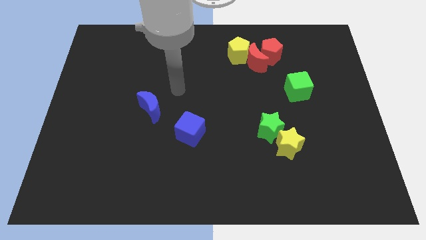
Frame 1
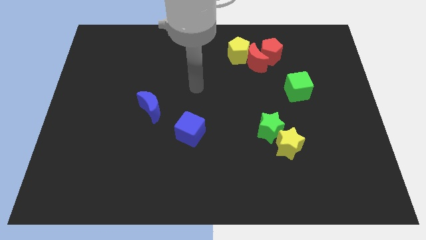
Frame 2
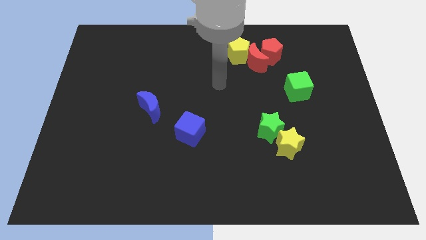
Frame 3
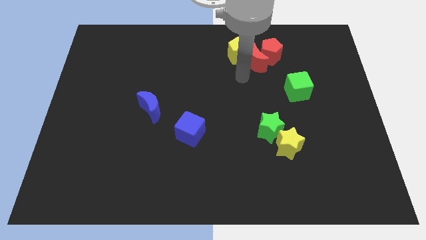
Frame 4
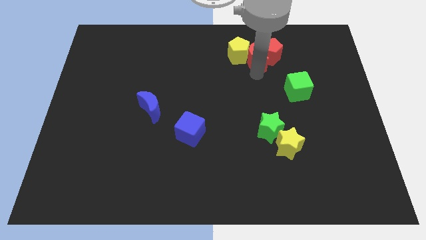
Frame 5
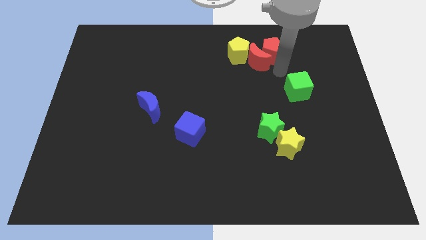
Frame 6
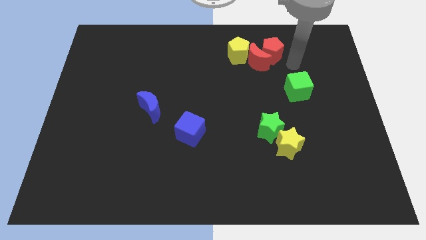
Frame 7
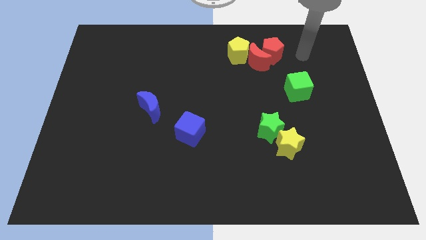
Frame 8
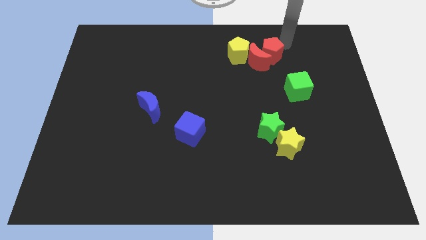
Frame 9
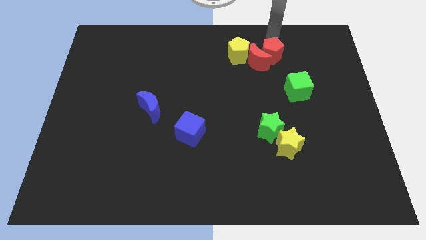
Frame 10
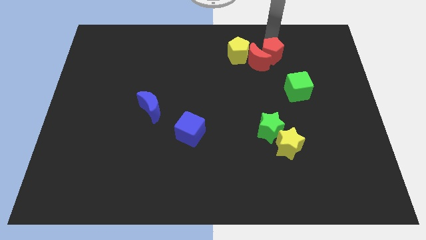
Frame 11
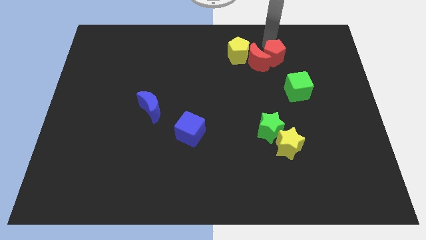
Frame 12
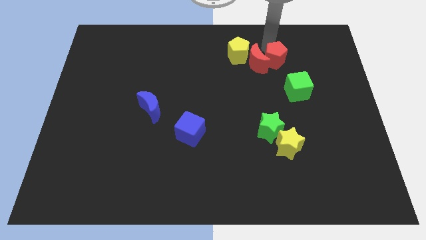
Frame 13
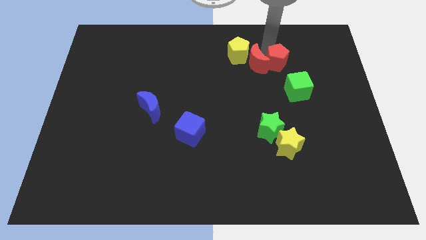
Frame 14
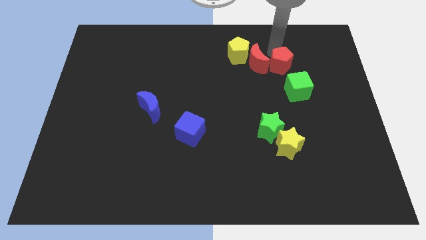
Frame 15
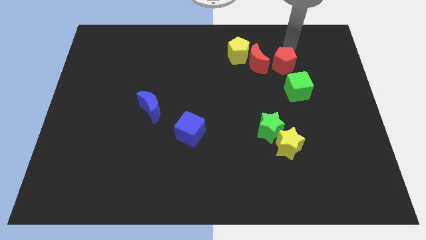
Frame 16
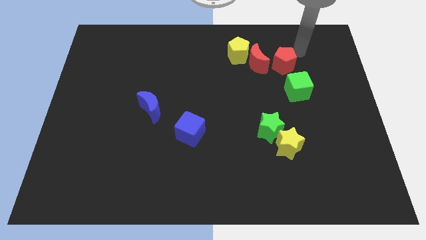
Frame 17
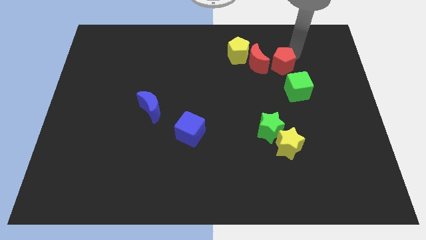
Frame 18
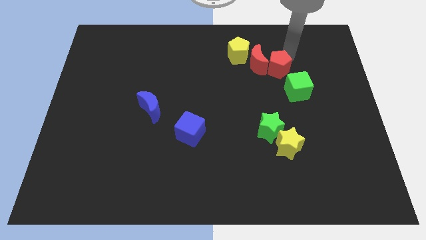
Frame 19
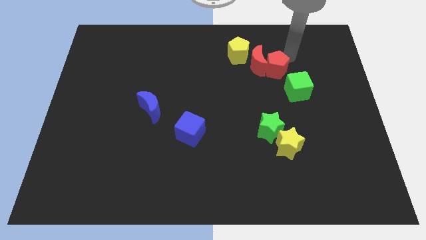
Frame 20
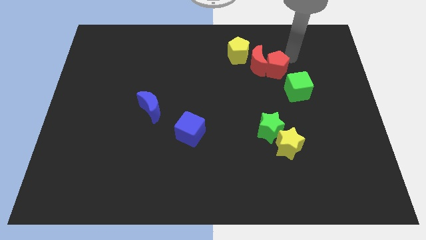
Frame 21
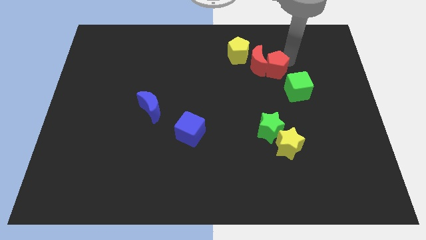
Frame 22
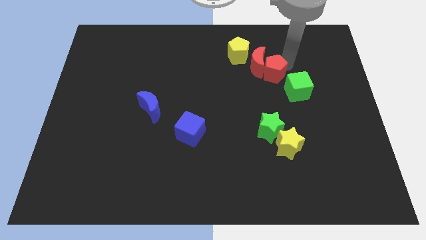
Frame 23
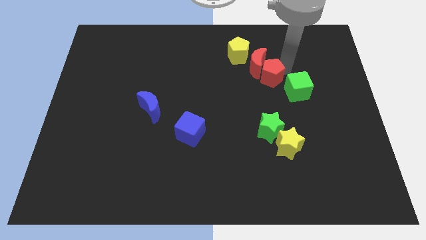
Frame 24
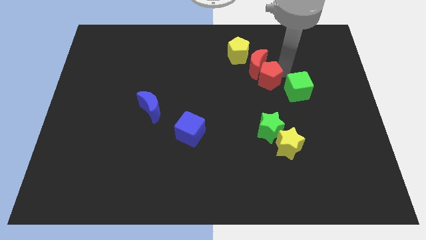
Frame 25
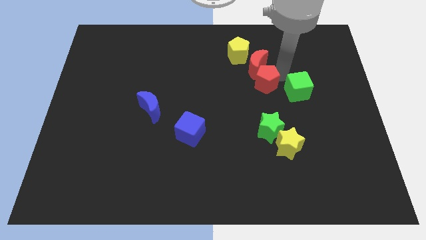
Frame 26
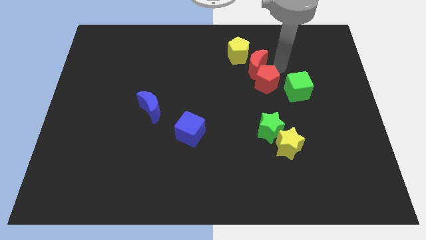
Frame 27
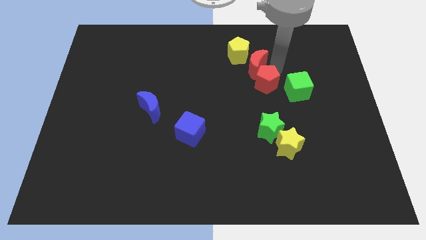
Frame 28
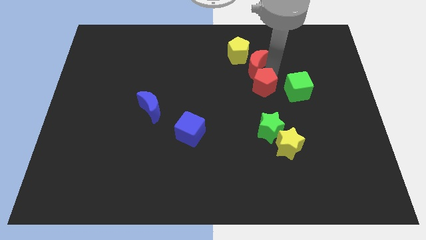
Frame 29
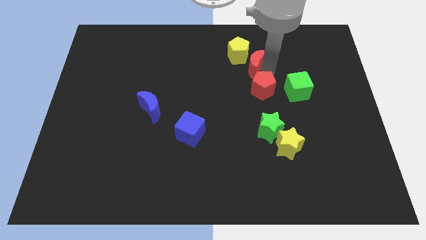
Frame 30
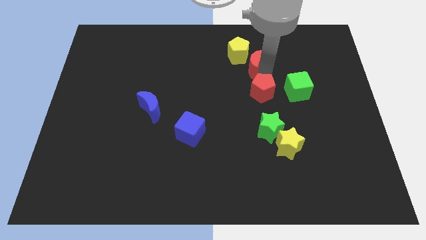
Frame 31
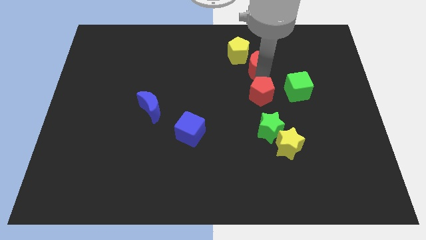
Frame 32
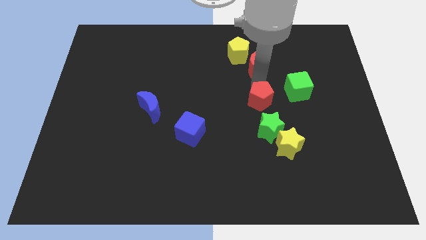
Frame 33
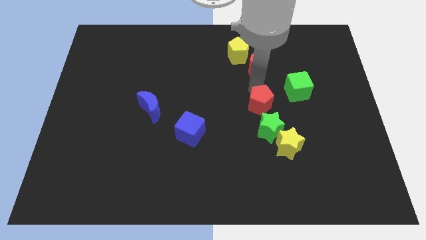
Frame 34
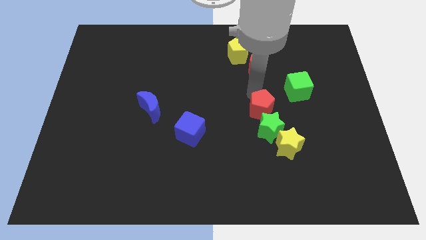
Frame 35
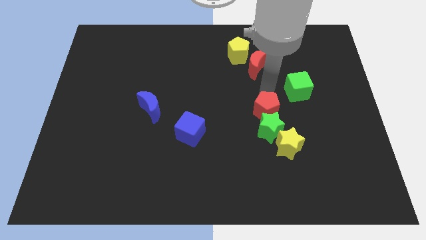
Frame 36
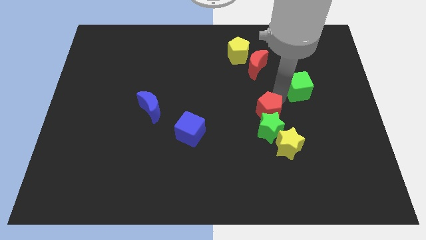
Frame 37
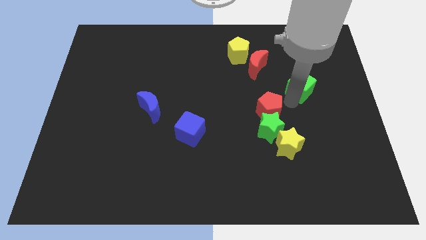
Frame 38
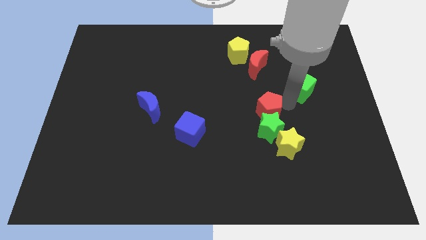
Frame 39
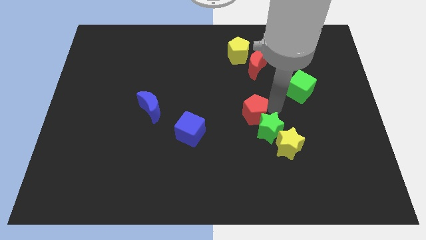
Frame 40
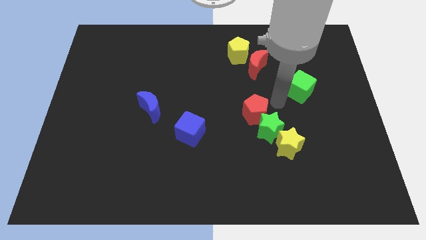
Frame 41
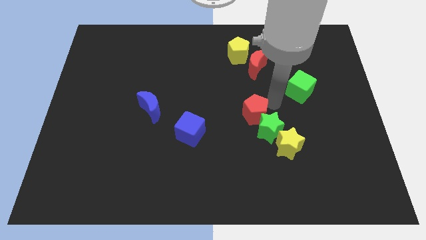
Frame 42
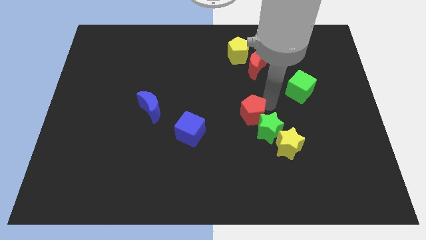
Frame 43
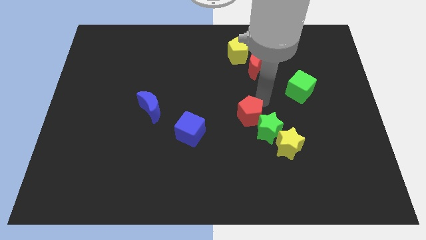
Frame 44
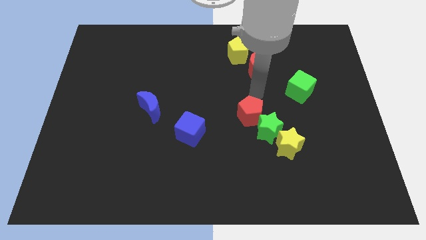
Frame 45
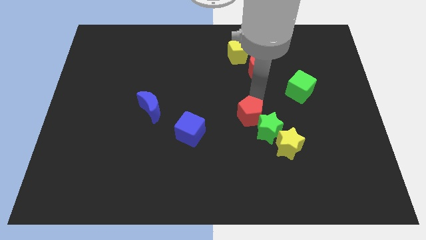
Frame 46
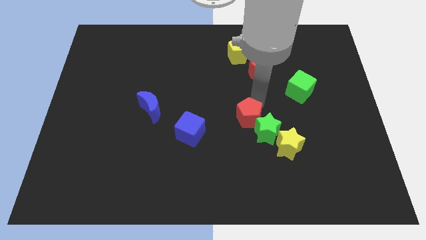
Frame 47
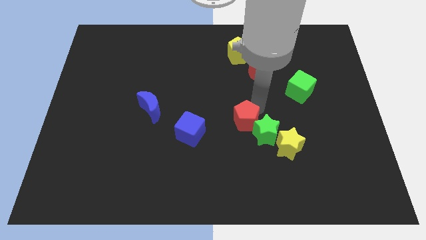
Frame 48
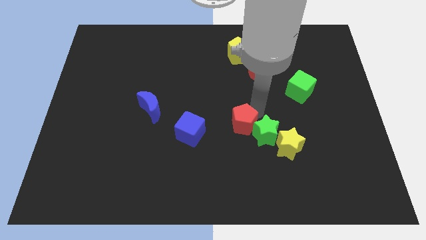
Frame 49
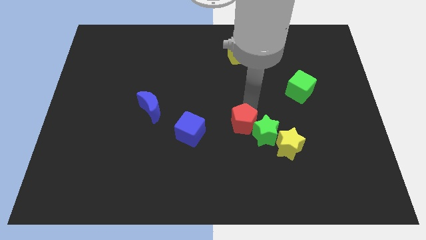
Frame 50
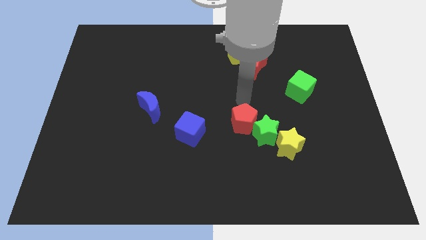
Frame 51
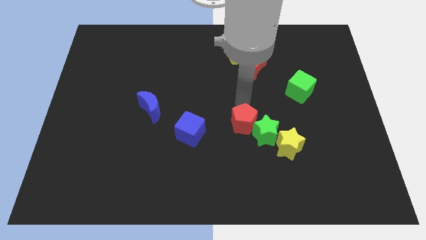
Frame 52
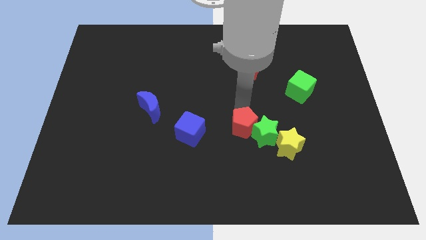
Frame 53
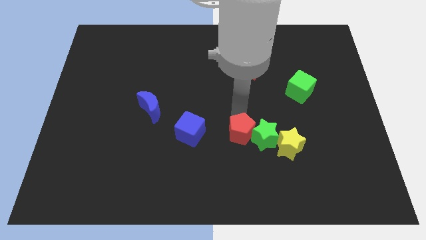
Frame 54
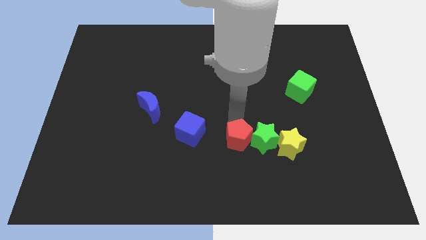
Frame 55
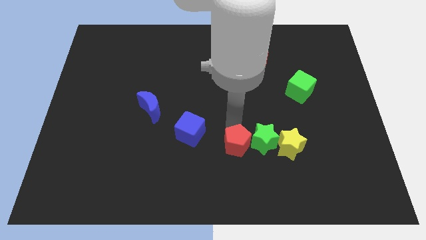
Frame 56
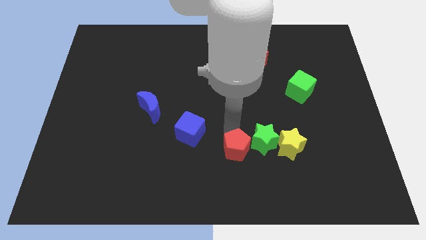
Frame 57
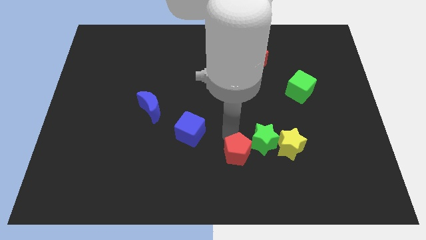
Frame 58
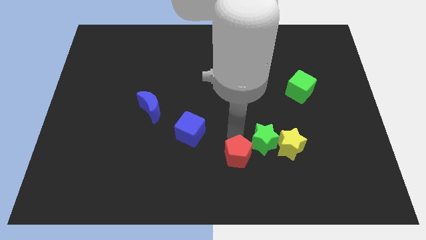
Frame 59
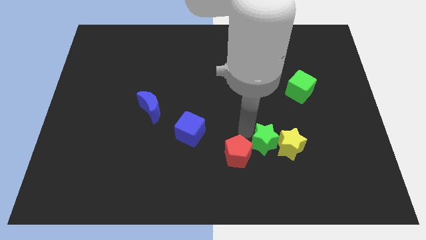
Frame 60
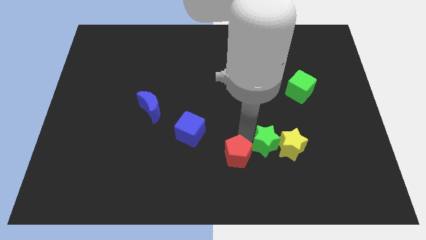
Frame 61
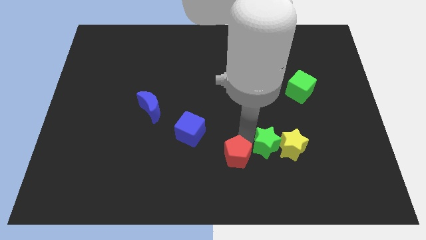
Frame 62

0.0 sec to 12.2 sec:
put the red pentagon to the bottom

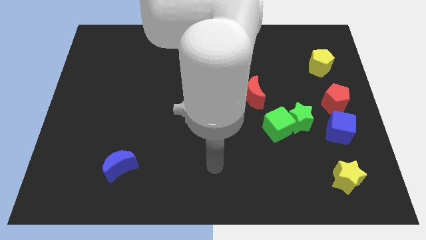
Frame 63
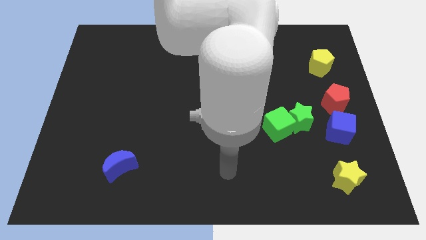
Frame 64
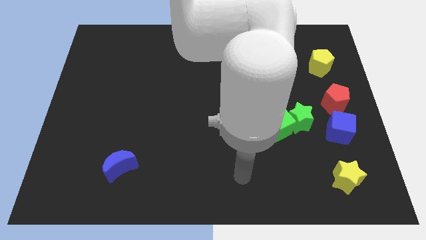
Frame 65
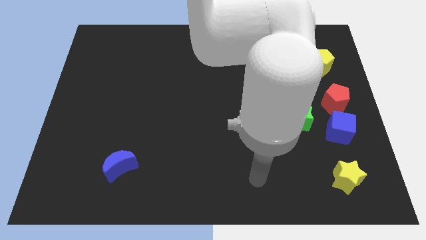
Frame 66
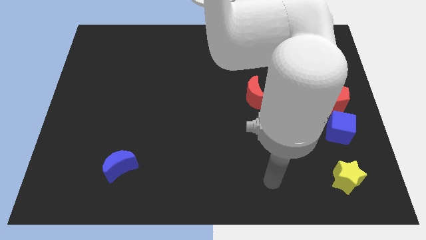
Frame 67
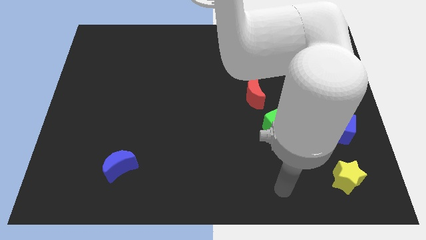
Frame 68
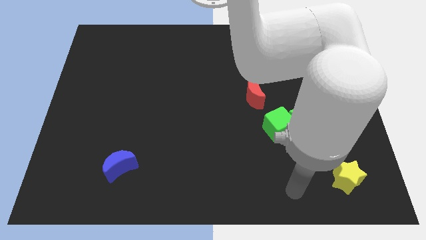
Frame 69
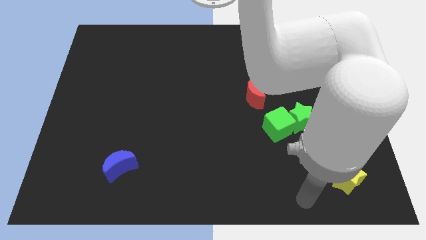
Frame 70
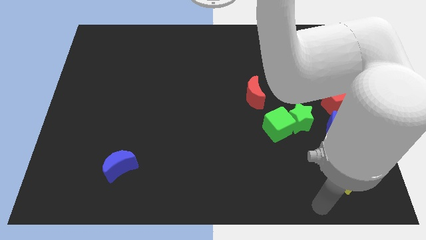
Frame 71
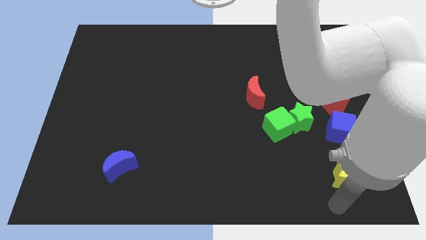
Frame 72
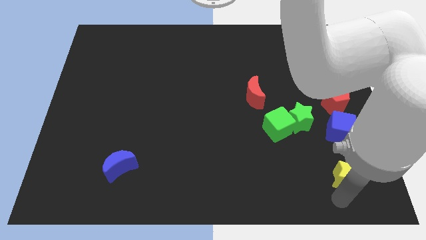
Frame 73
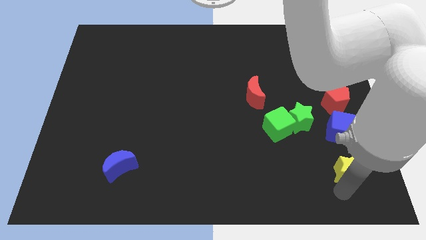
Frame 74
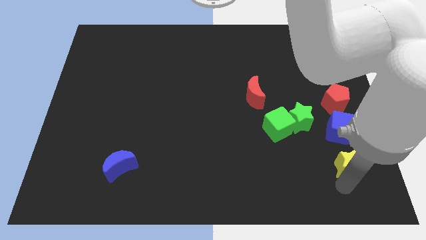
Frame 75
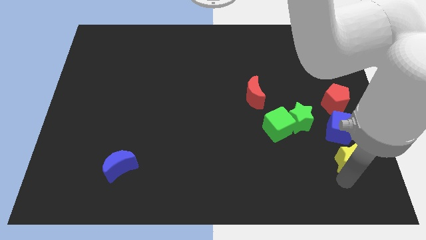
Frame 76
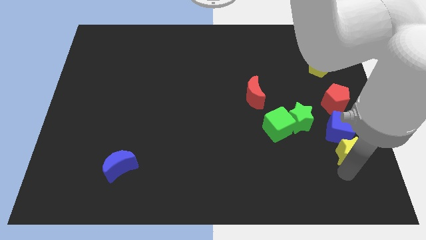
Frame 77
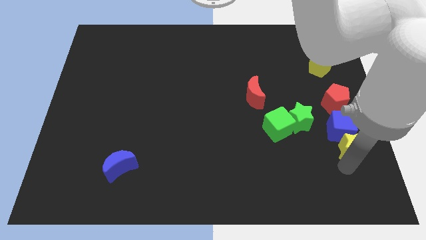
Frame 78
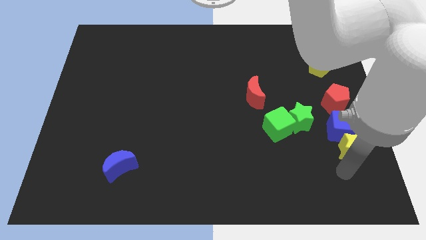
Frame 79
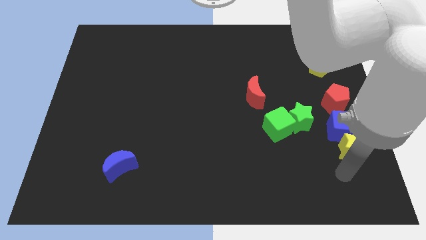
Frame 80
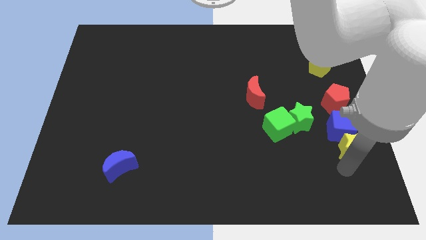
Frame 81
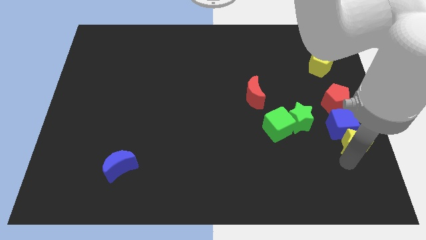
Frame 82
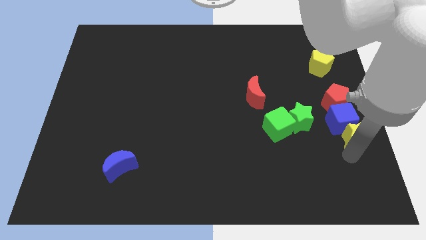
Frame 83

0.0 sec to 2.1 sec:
move the yellow star to the center right
